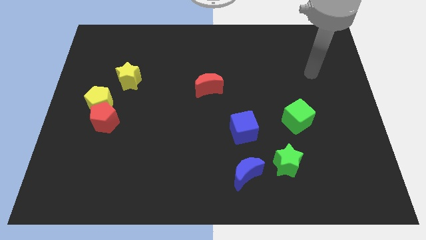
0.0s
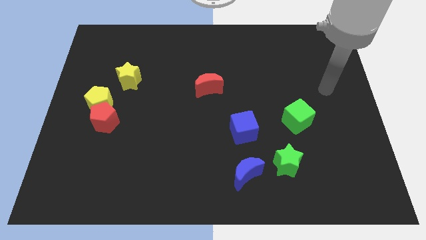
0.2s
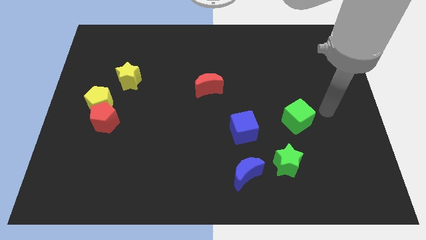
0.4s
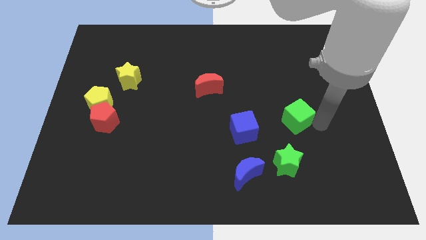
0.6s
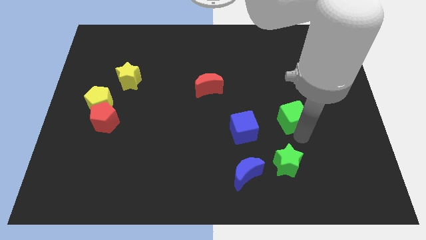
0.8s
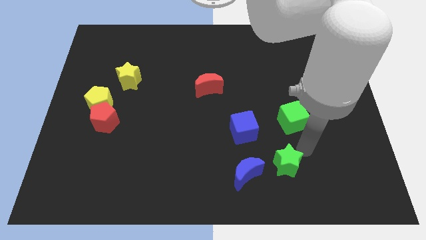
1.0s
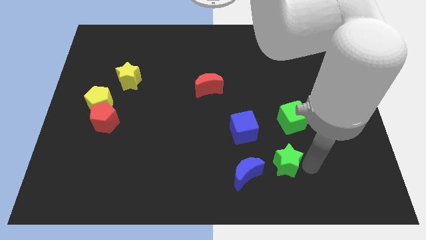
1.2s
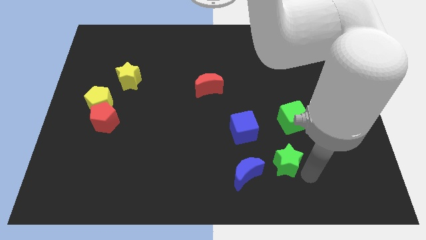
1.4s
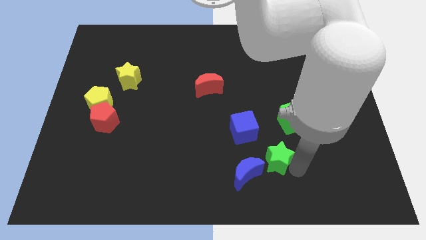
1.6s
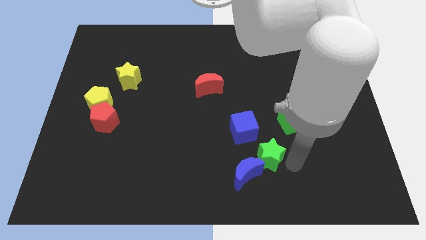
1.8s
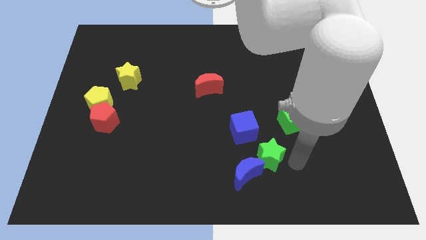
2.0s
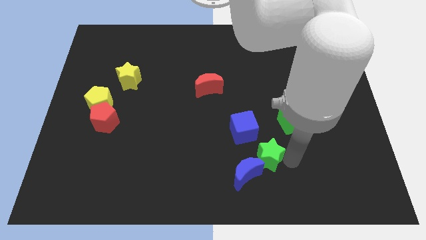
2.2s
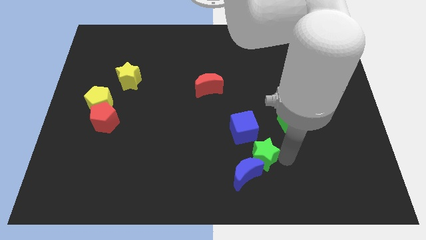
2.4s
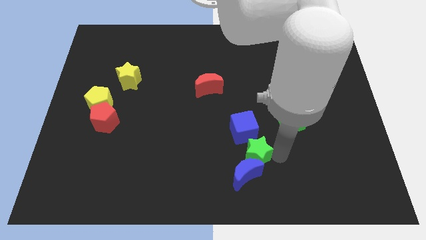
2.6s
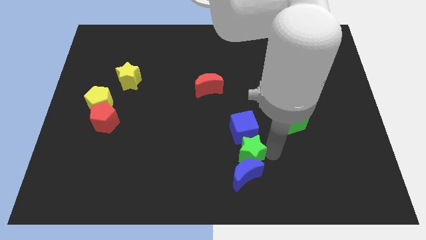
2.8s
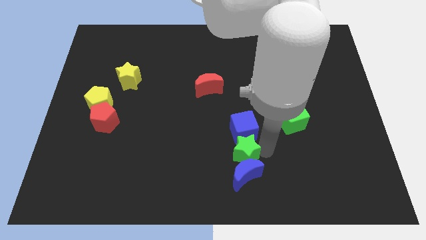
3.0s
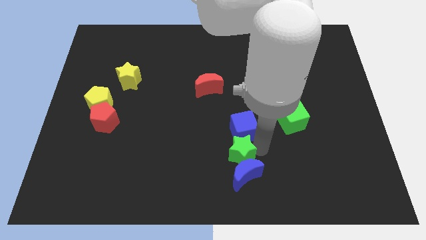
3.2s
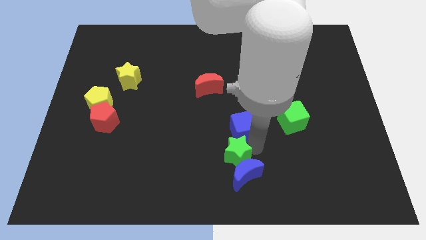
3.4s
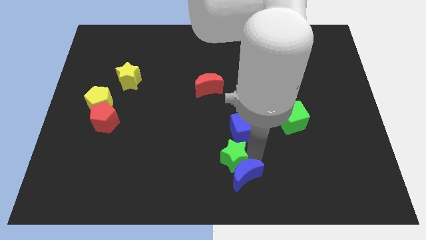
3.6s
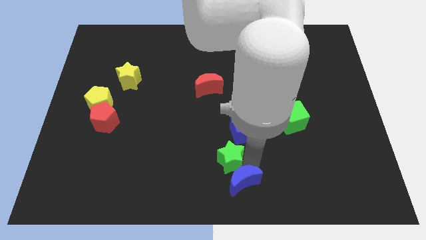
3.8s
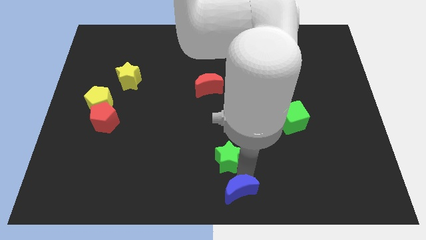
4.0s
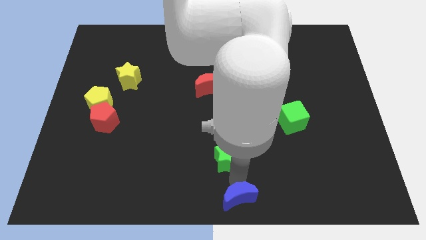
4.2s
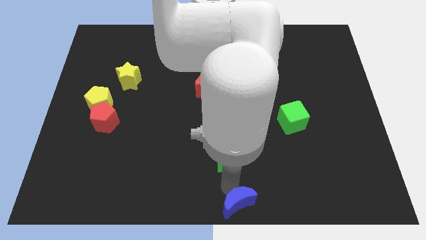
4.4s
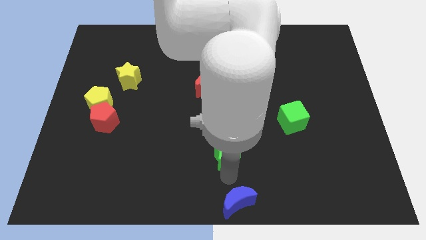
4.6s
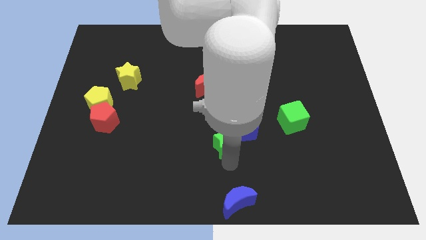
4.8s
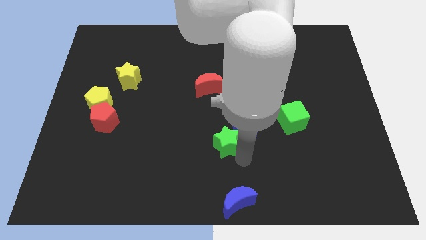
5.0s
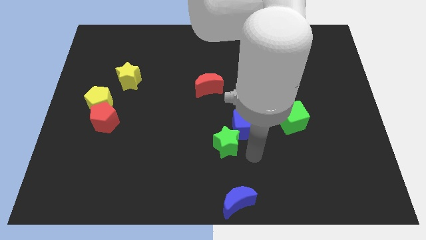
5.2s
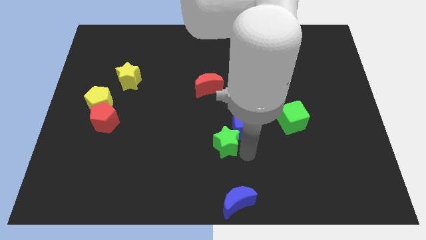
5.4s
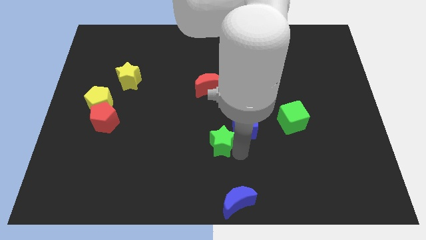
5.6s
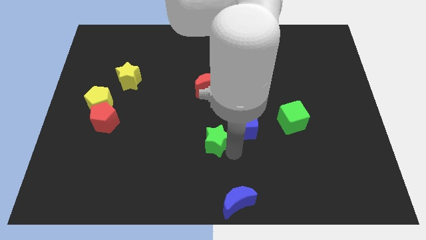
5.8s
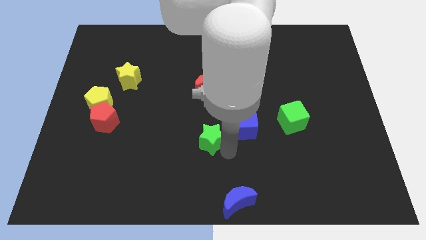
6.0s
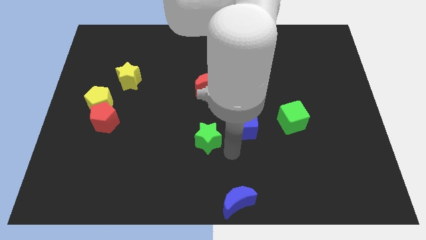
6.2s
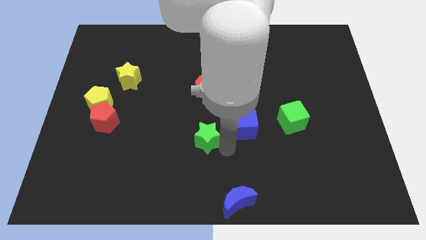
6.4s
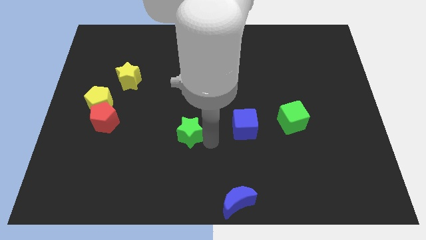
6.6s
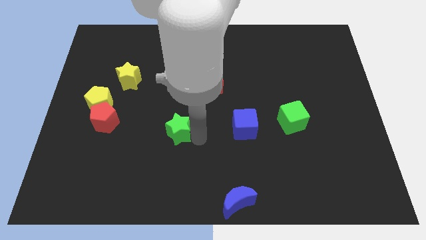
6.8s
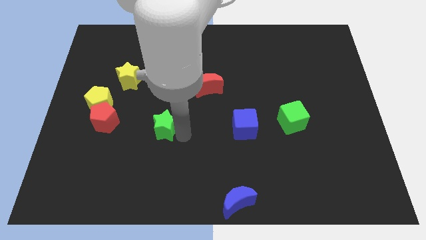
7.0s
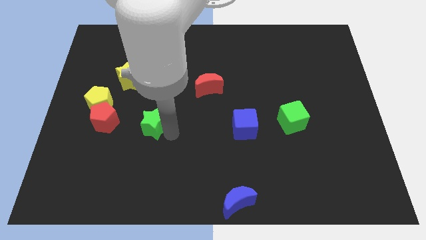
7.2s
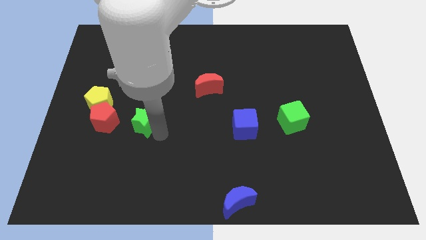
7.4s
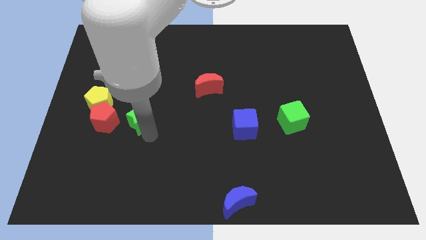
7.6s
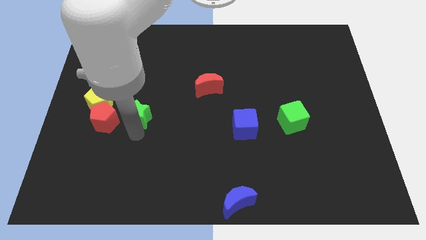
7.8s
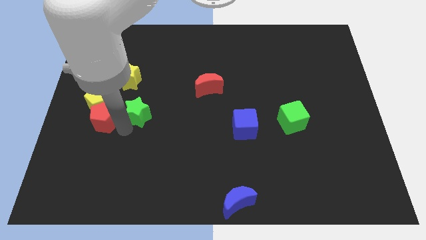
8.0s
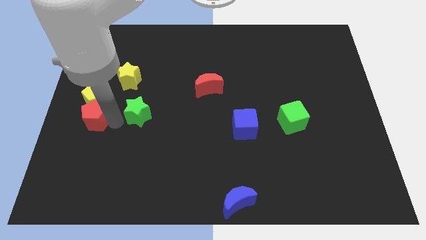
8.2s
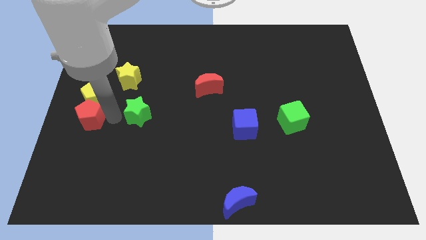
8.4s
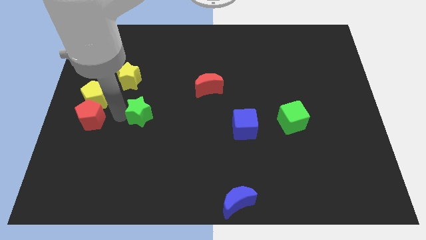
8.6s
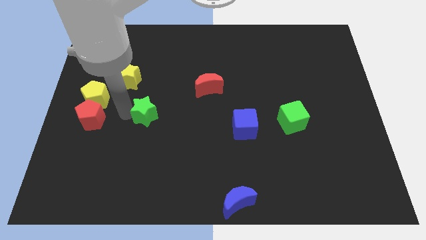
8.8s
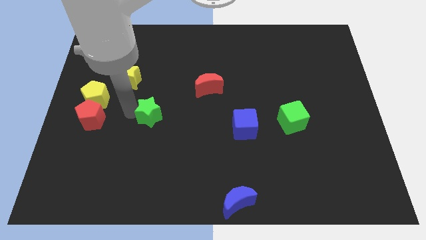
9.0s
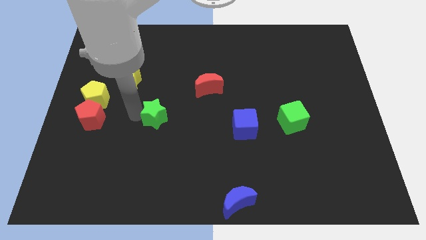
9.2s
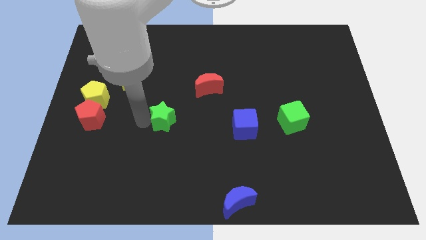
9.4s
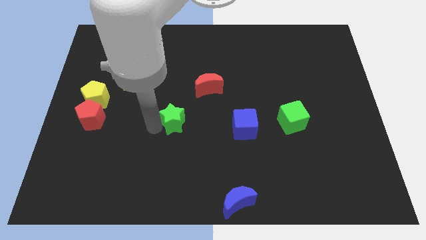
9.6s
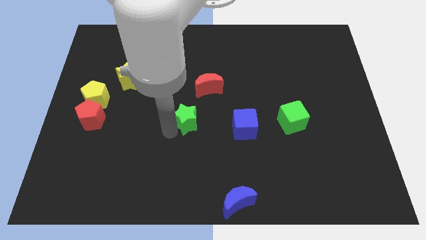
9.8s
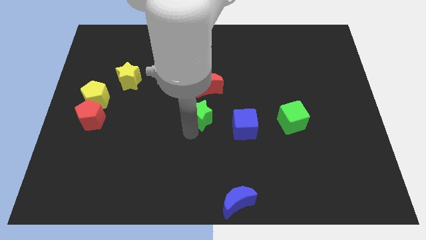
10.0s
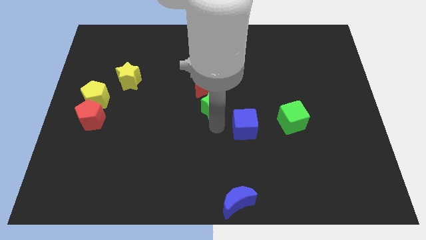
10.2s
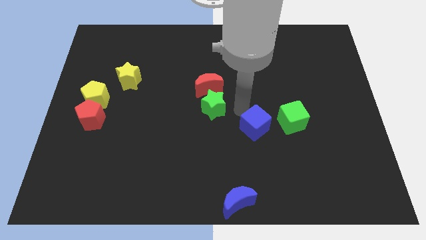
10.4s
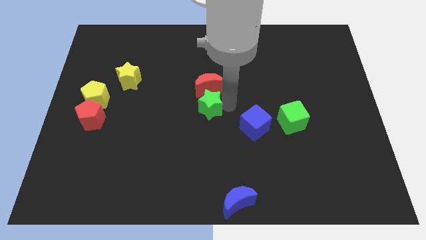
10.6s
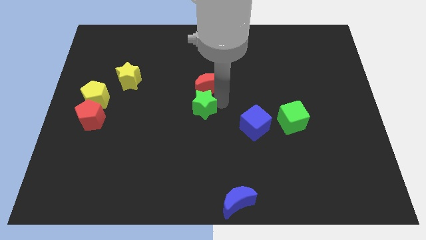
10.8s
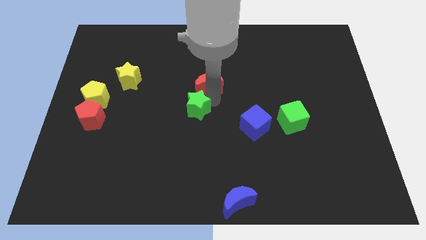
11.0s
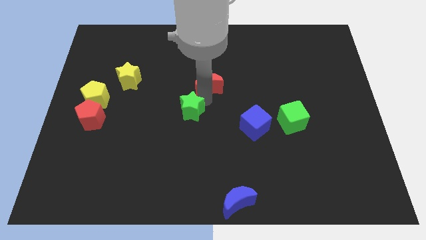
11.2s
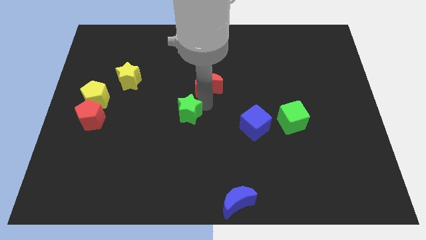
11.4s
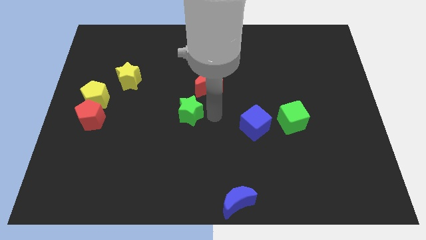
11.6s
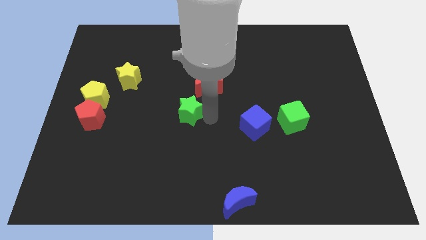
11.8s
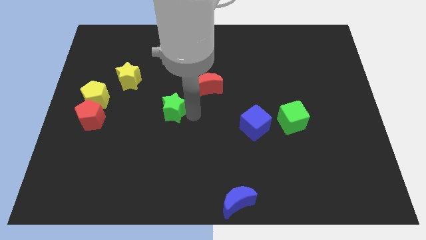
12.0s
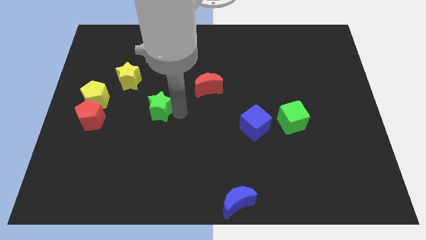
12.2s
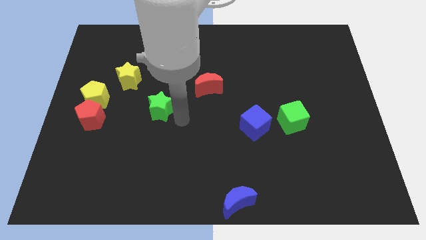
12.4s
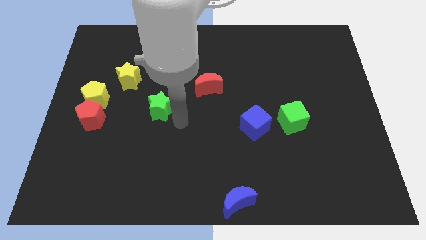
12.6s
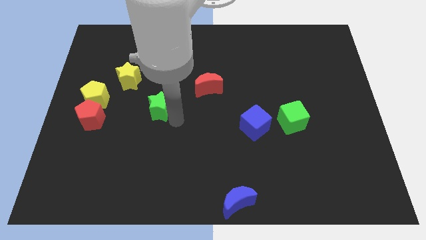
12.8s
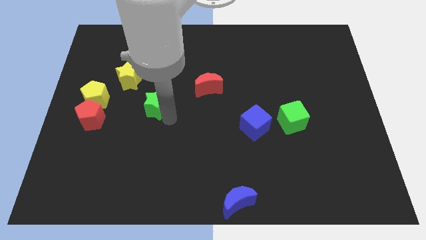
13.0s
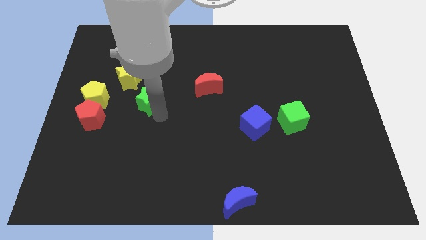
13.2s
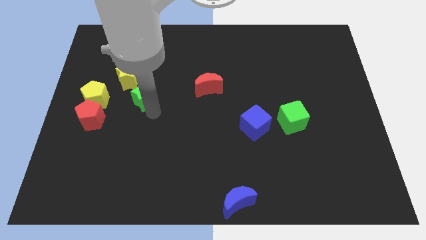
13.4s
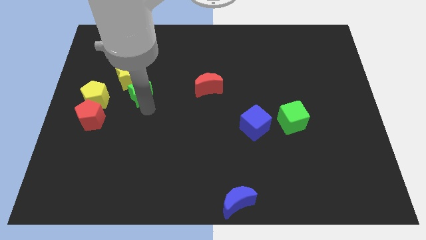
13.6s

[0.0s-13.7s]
push the green star towards the yellow star

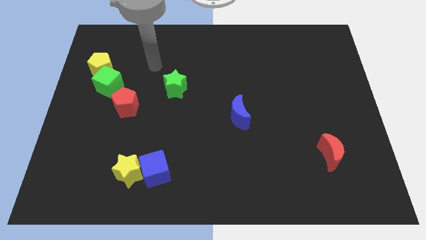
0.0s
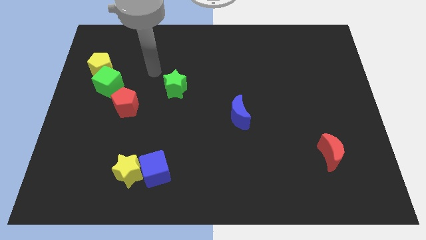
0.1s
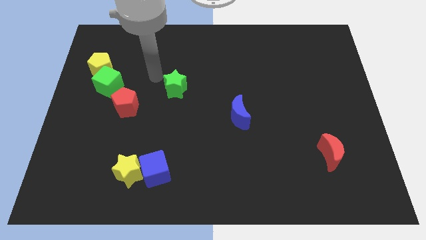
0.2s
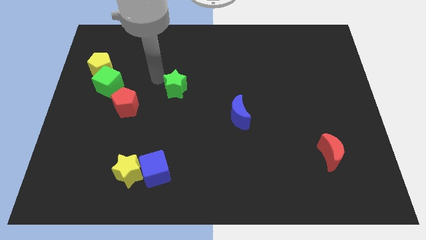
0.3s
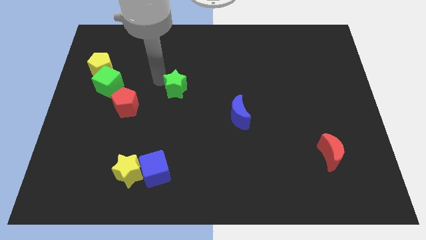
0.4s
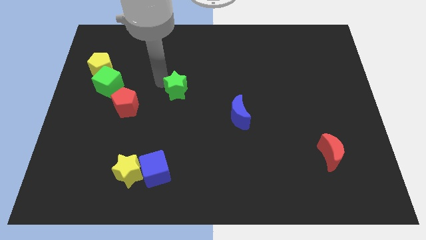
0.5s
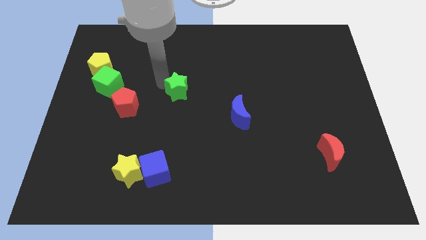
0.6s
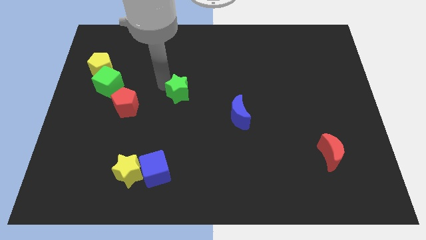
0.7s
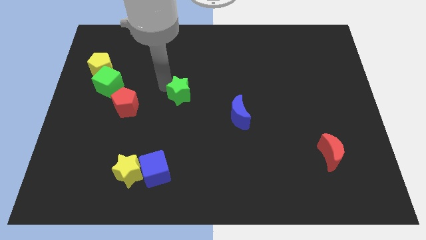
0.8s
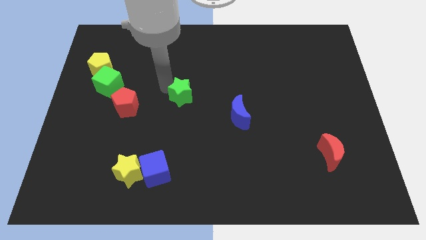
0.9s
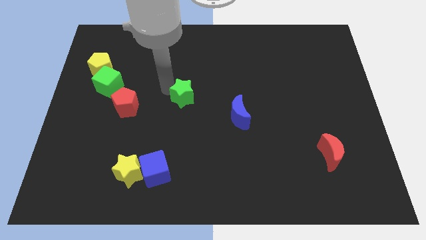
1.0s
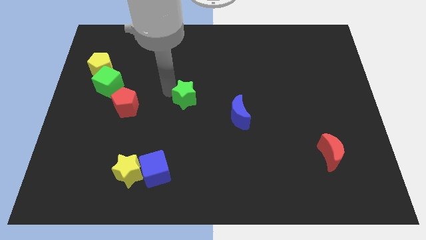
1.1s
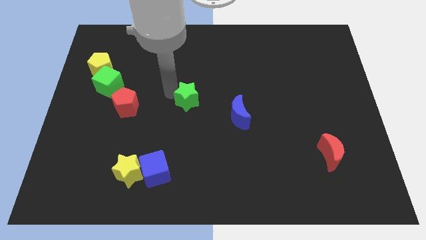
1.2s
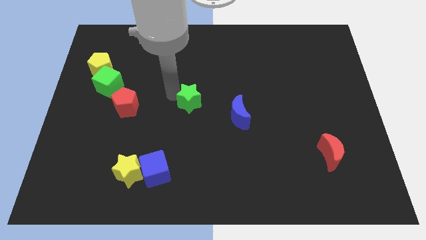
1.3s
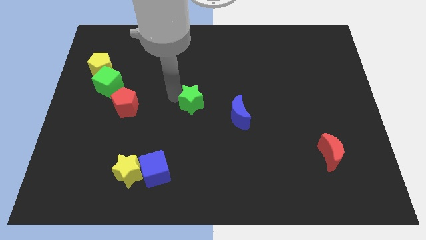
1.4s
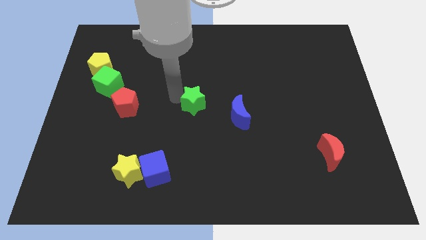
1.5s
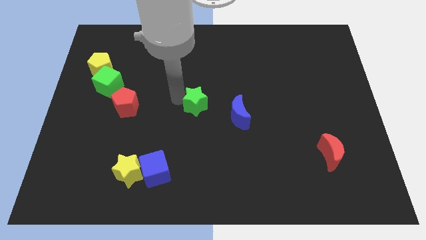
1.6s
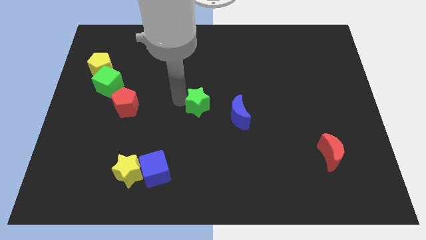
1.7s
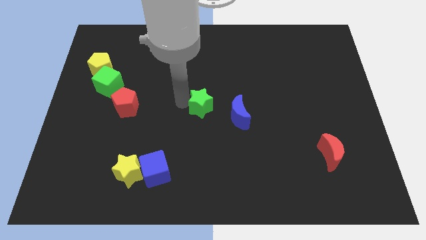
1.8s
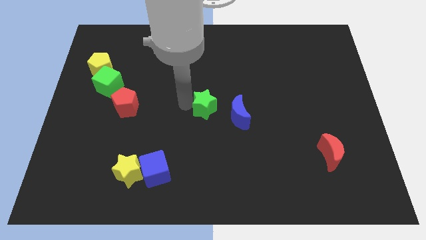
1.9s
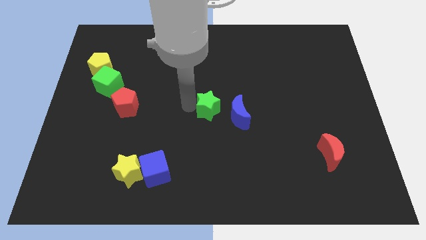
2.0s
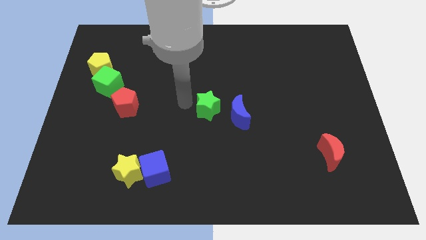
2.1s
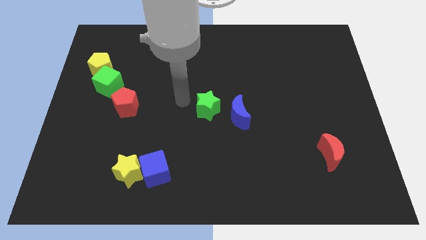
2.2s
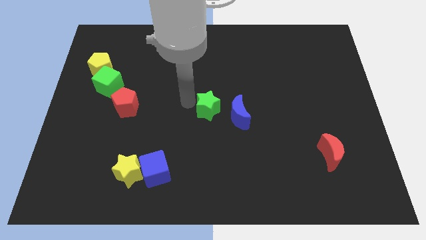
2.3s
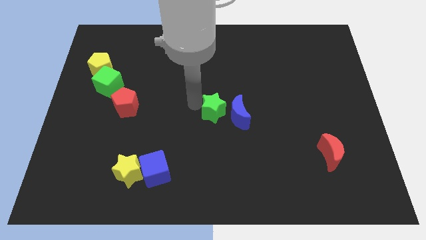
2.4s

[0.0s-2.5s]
push the green star towards the blue moon
